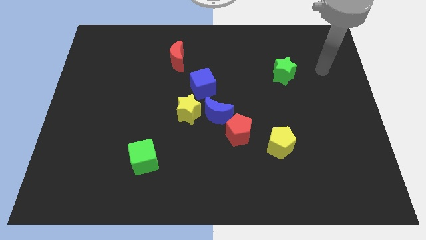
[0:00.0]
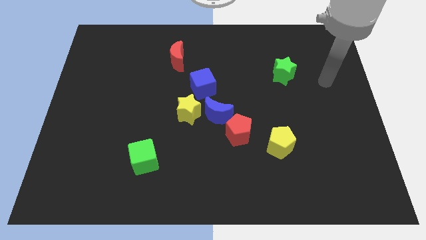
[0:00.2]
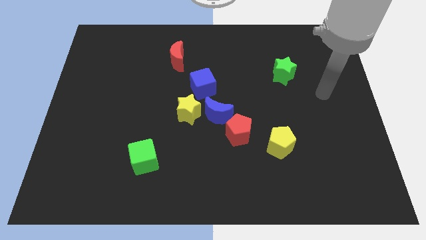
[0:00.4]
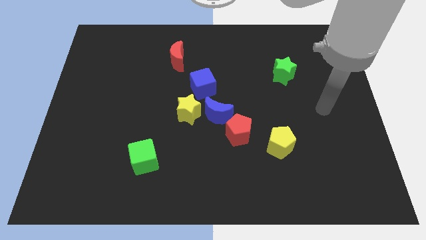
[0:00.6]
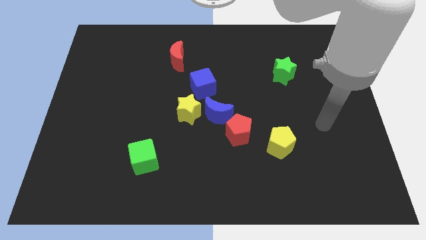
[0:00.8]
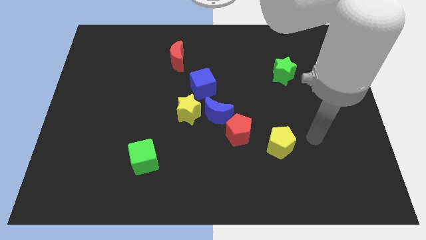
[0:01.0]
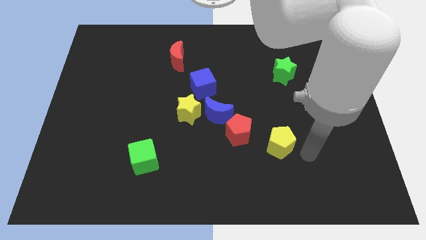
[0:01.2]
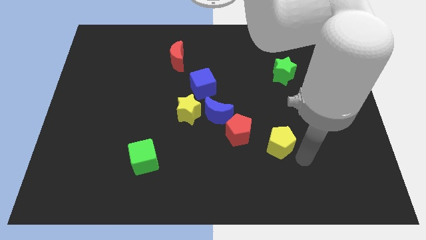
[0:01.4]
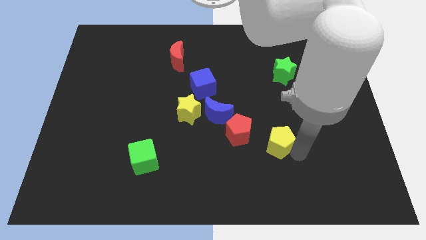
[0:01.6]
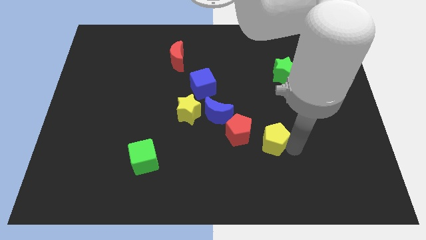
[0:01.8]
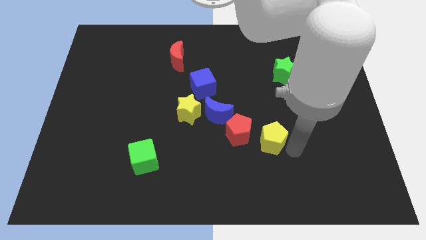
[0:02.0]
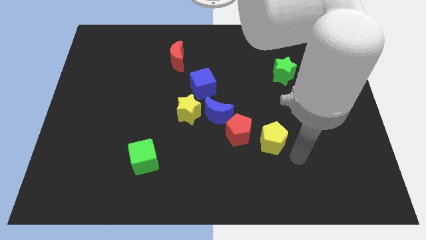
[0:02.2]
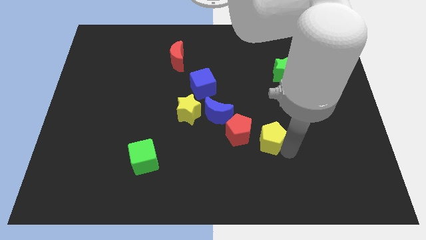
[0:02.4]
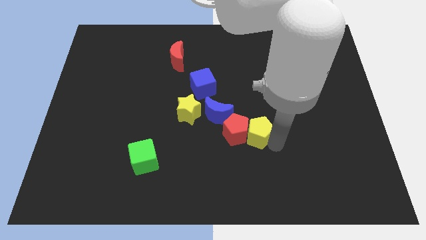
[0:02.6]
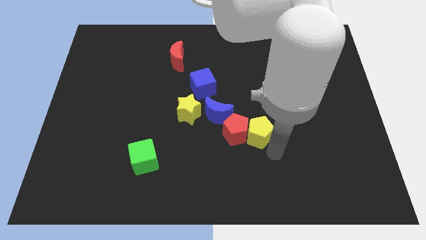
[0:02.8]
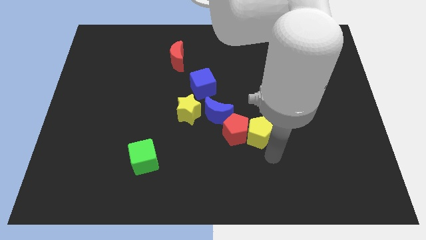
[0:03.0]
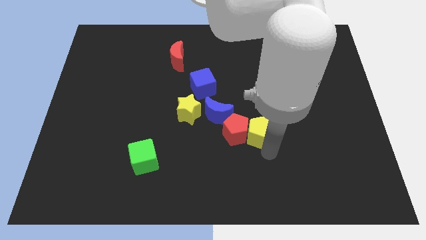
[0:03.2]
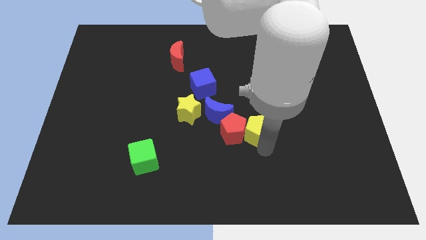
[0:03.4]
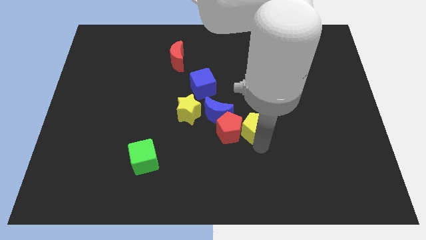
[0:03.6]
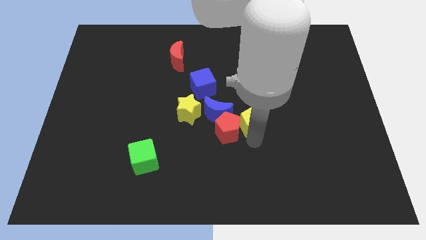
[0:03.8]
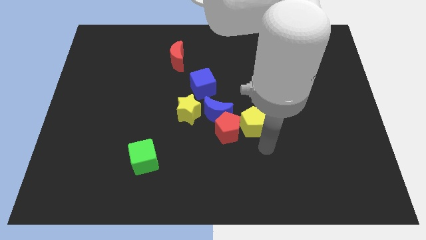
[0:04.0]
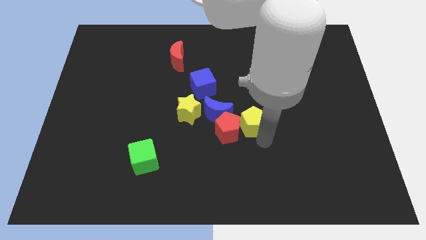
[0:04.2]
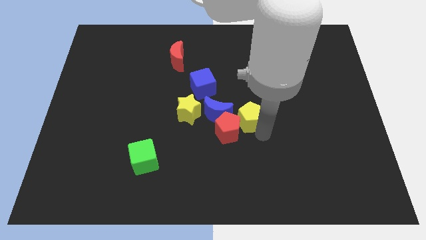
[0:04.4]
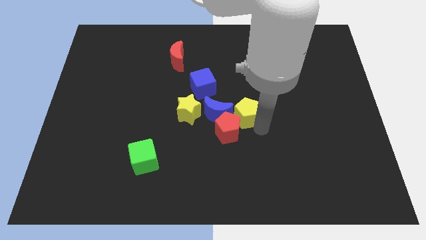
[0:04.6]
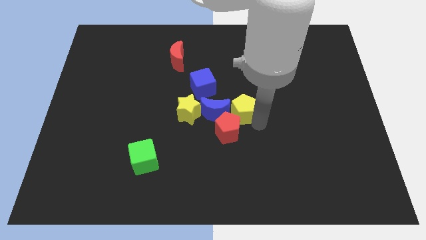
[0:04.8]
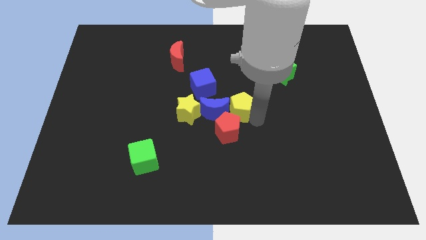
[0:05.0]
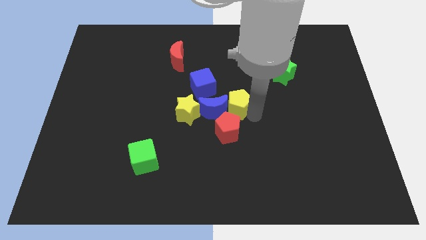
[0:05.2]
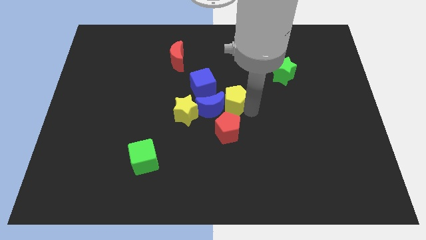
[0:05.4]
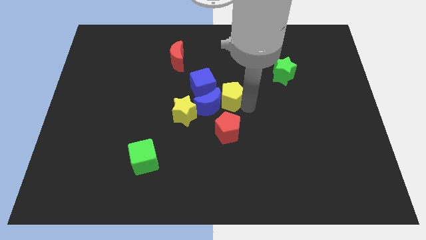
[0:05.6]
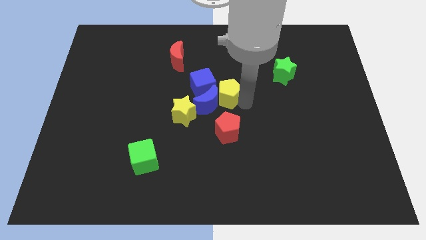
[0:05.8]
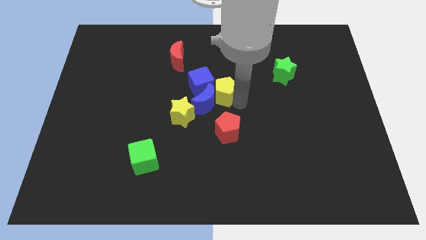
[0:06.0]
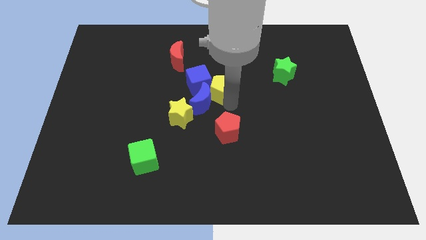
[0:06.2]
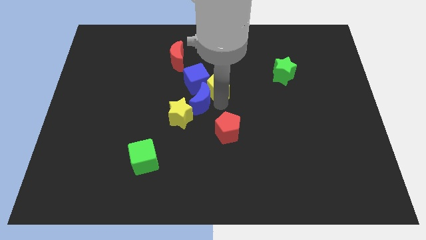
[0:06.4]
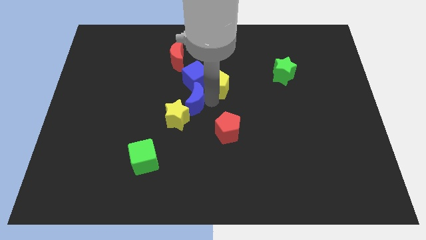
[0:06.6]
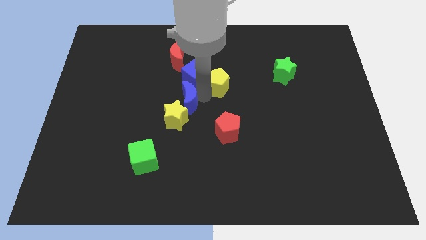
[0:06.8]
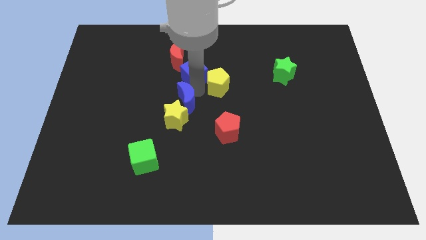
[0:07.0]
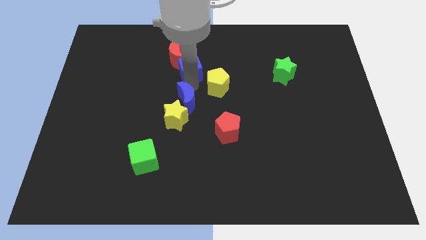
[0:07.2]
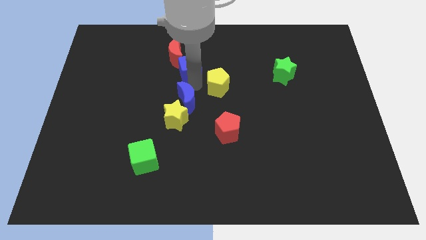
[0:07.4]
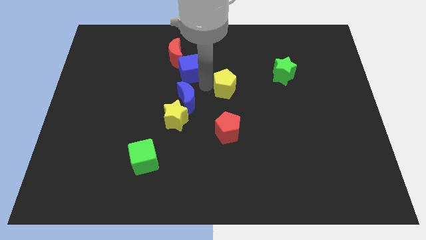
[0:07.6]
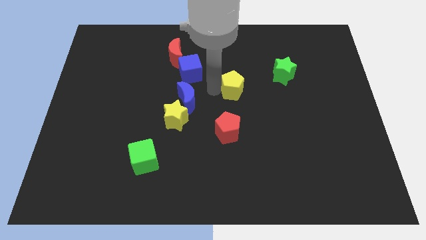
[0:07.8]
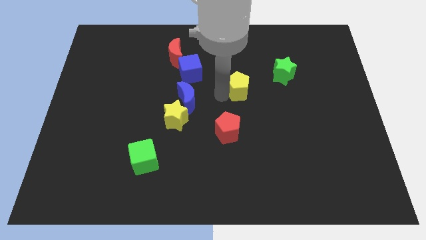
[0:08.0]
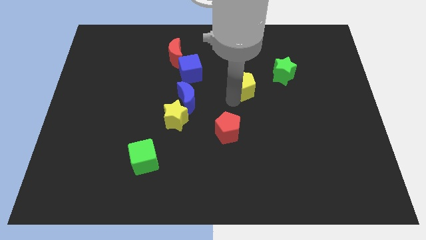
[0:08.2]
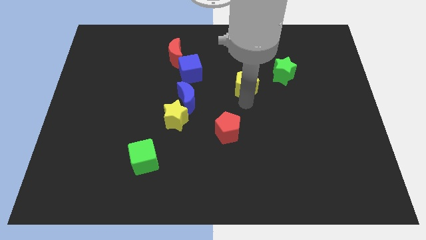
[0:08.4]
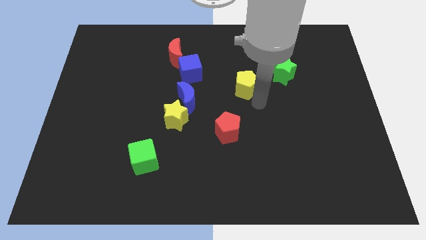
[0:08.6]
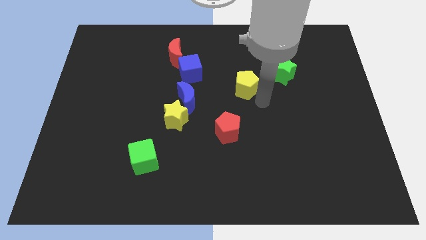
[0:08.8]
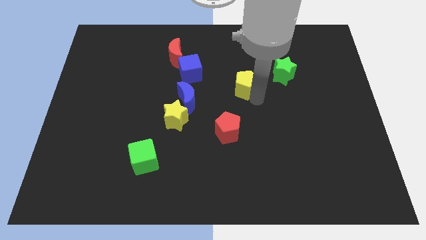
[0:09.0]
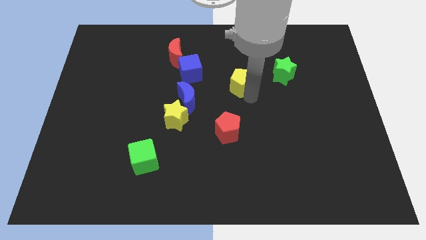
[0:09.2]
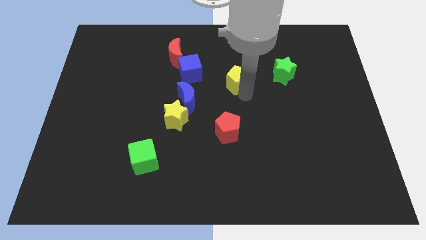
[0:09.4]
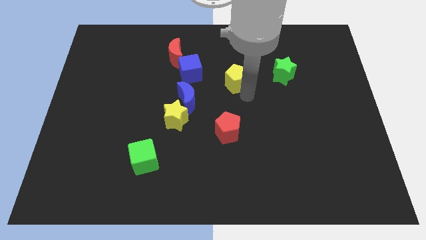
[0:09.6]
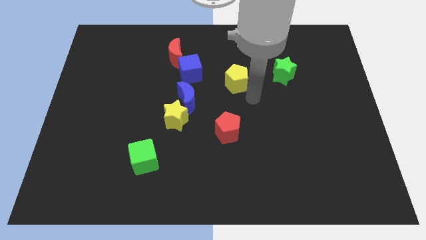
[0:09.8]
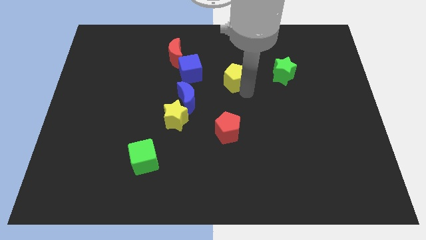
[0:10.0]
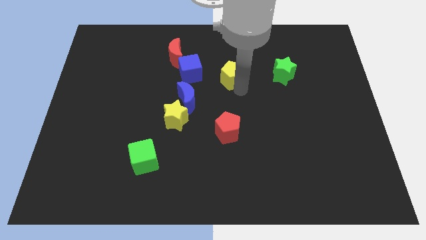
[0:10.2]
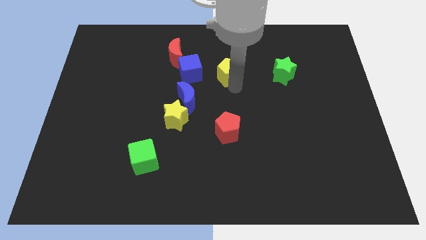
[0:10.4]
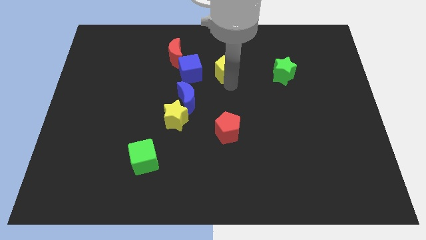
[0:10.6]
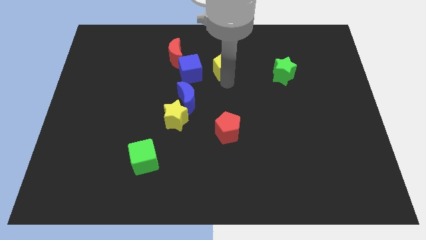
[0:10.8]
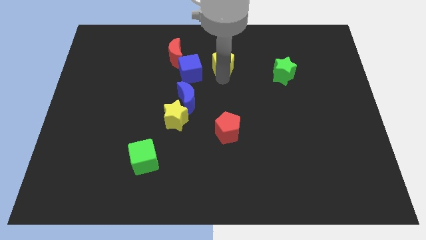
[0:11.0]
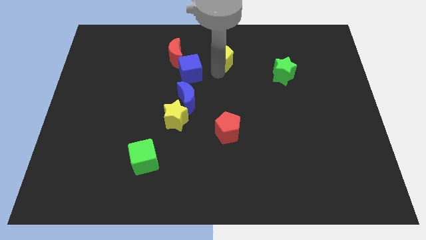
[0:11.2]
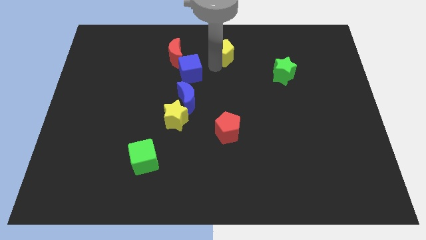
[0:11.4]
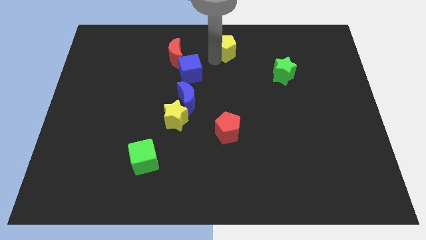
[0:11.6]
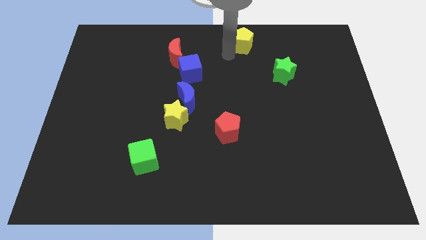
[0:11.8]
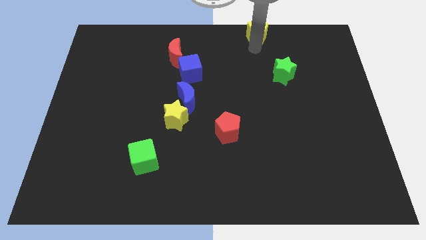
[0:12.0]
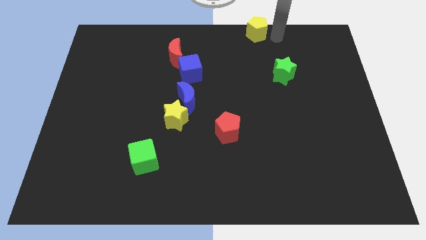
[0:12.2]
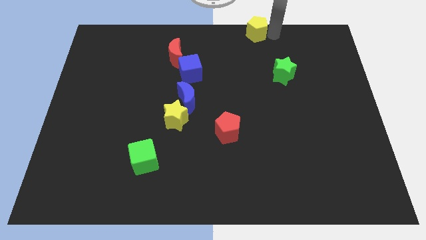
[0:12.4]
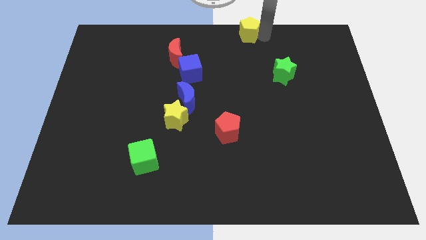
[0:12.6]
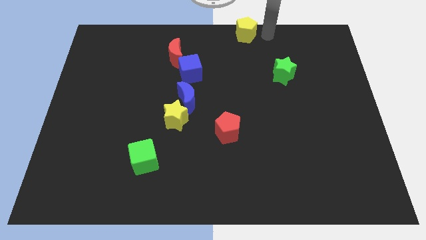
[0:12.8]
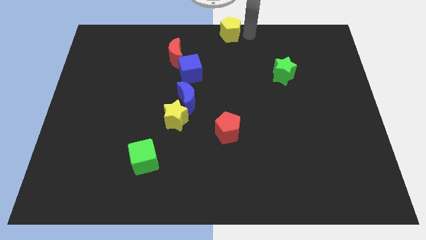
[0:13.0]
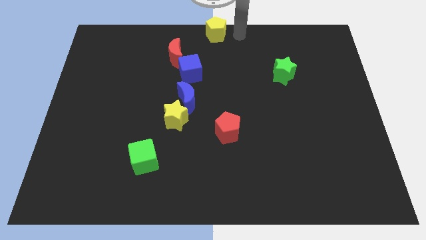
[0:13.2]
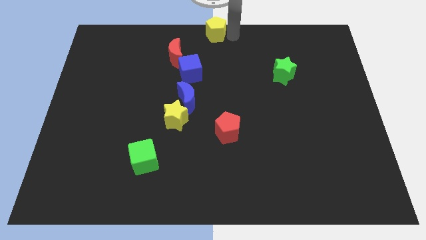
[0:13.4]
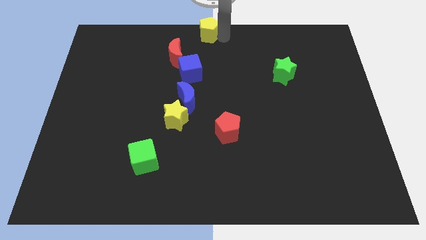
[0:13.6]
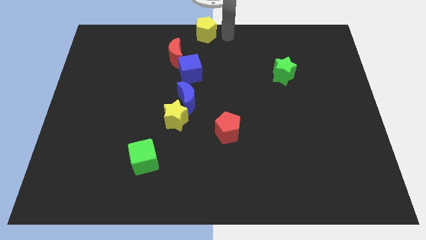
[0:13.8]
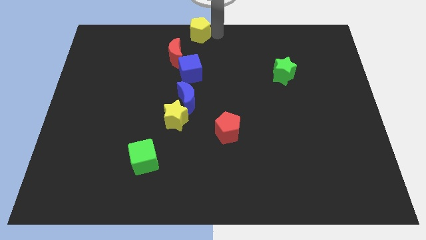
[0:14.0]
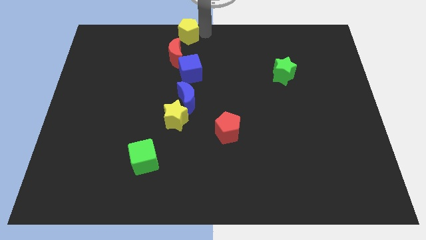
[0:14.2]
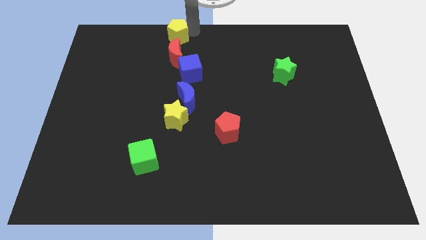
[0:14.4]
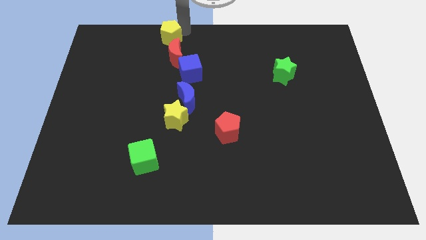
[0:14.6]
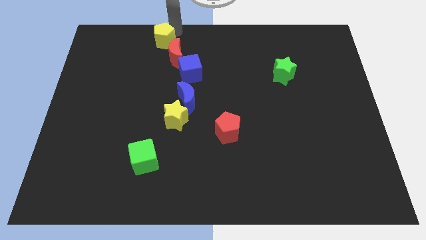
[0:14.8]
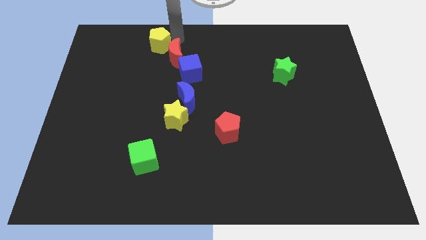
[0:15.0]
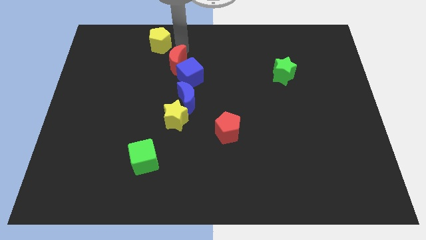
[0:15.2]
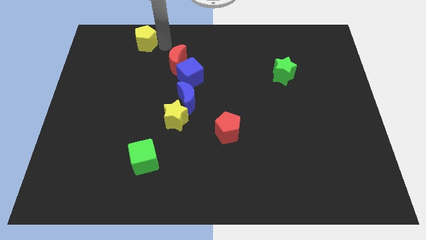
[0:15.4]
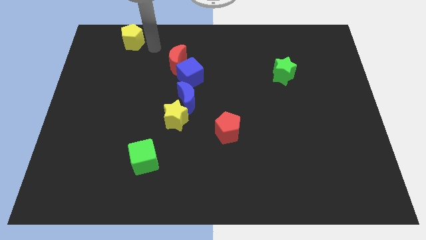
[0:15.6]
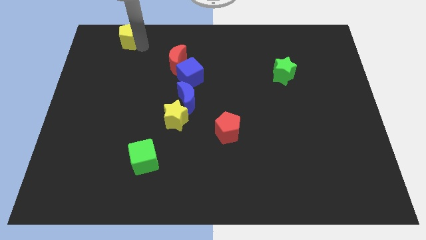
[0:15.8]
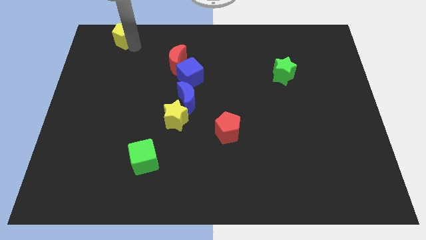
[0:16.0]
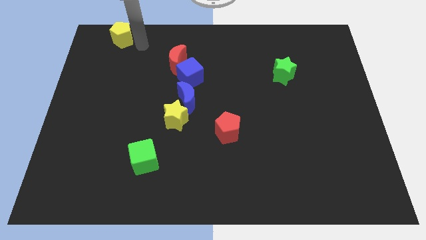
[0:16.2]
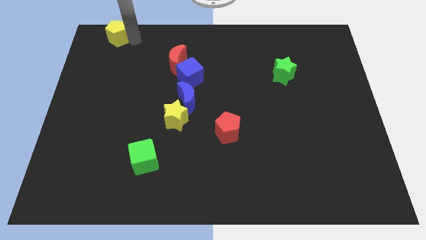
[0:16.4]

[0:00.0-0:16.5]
slide the yellow pentagon to the upper left corner
